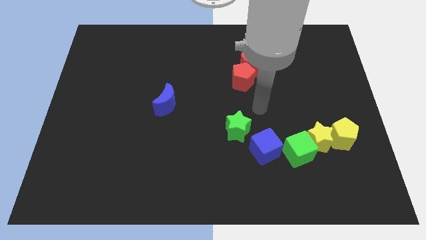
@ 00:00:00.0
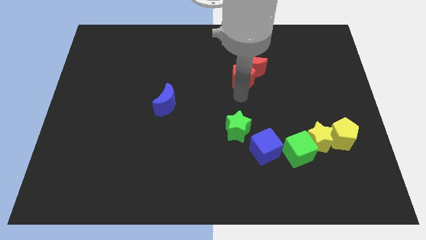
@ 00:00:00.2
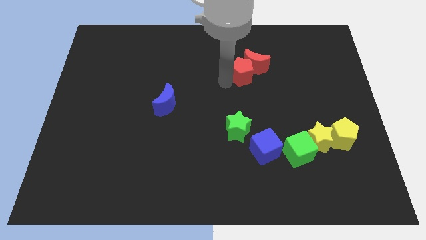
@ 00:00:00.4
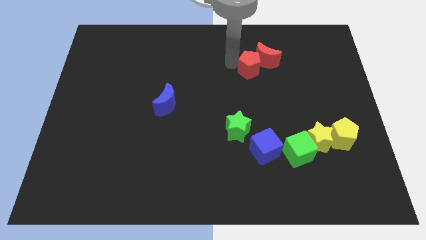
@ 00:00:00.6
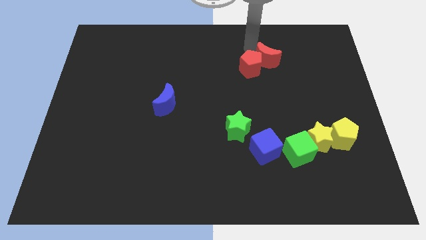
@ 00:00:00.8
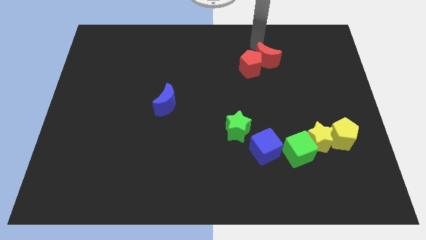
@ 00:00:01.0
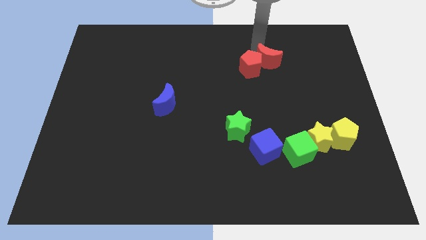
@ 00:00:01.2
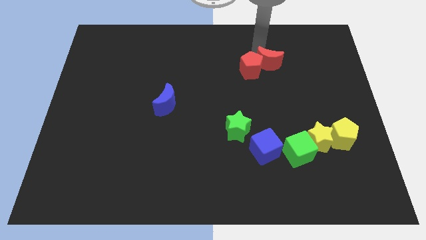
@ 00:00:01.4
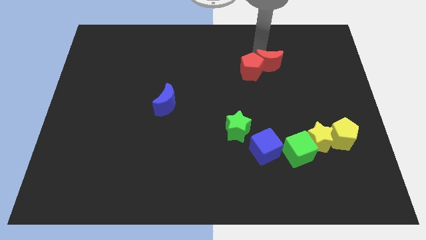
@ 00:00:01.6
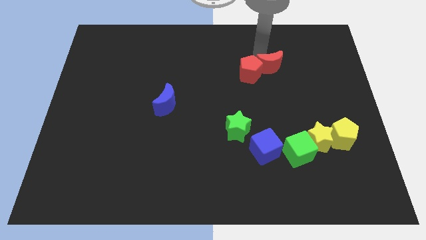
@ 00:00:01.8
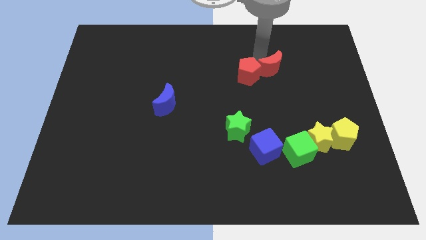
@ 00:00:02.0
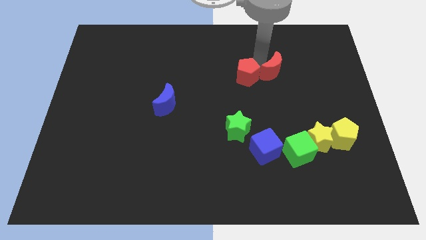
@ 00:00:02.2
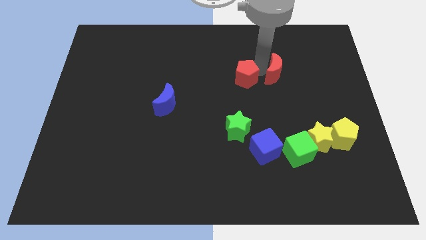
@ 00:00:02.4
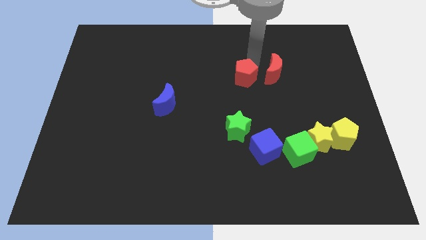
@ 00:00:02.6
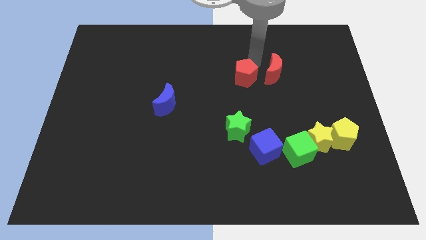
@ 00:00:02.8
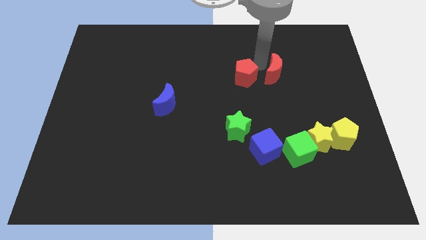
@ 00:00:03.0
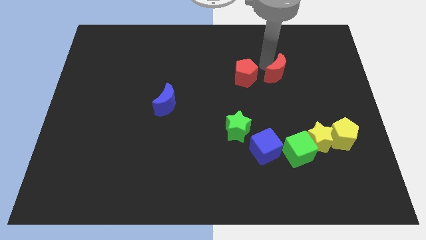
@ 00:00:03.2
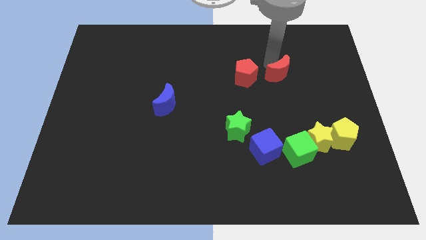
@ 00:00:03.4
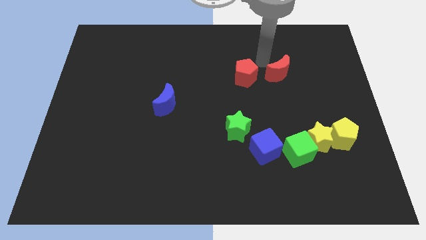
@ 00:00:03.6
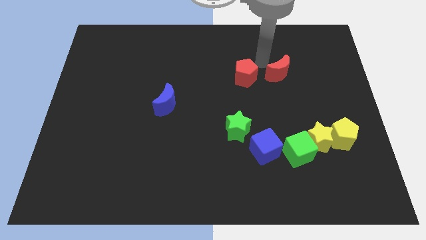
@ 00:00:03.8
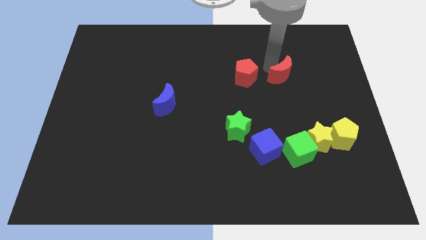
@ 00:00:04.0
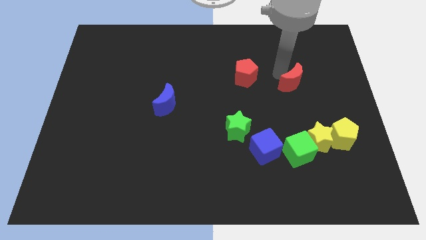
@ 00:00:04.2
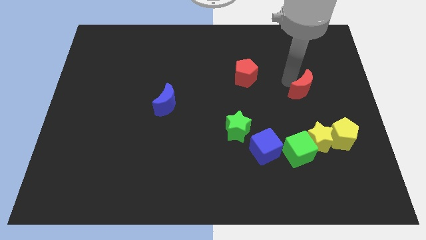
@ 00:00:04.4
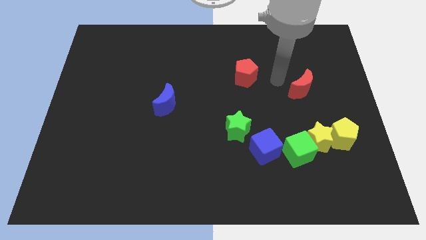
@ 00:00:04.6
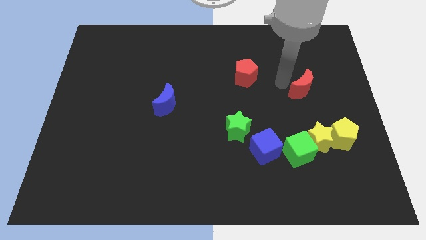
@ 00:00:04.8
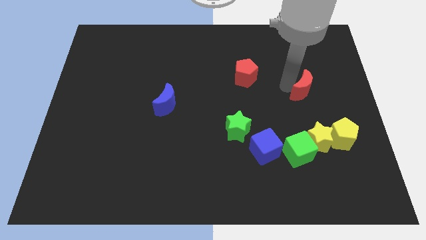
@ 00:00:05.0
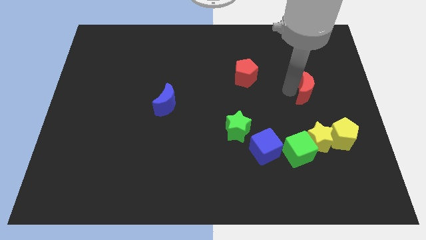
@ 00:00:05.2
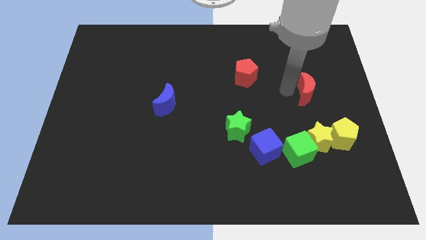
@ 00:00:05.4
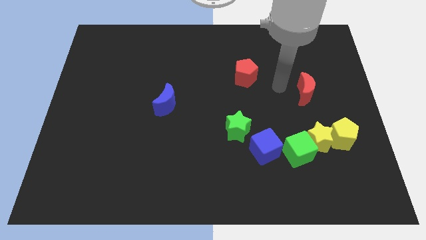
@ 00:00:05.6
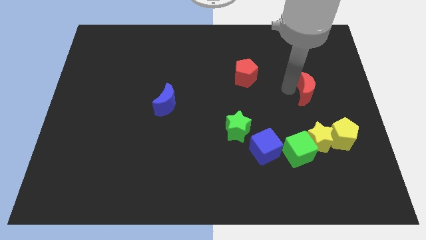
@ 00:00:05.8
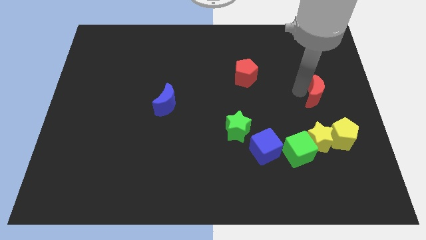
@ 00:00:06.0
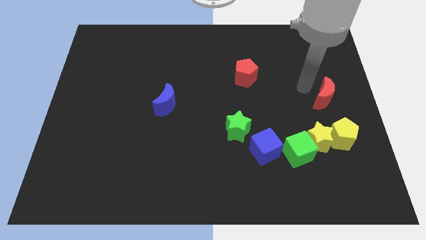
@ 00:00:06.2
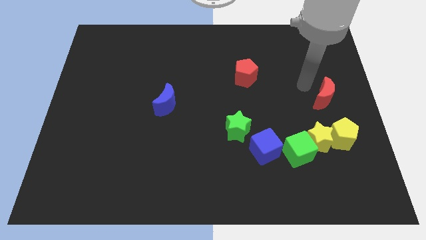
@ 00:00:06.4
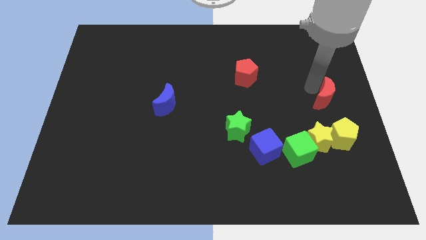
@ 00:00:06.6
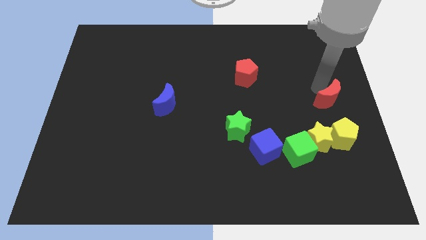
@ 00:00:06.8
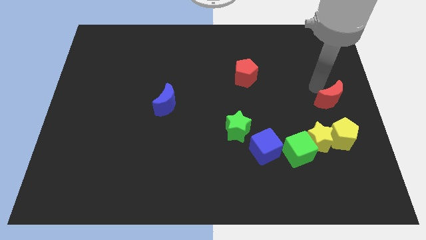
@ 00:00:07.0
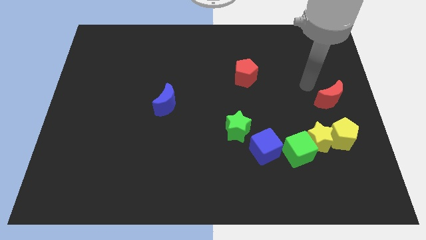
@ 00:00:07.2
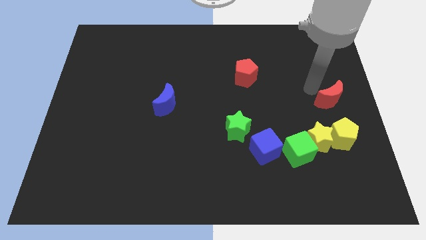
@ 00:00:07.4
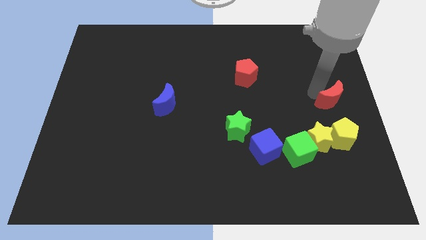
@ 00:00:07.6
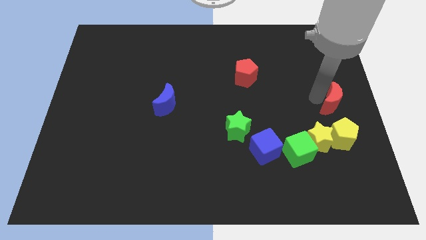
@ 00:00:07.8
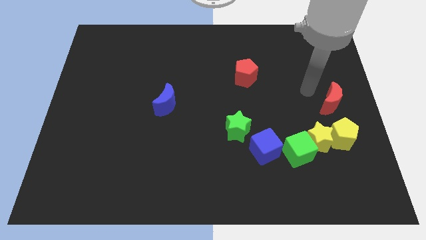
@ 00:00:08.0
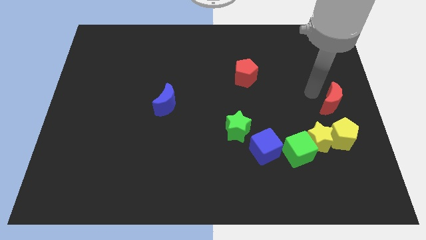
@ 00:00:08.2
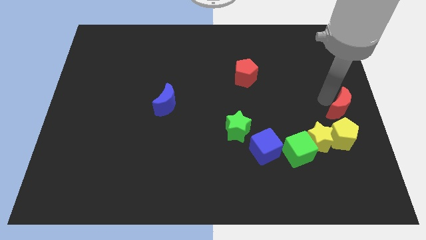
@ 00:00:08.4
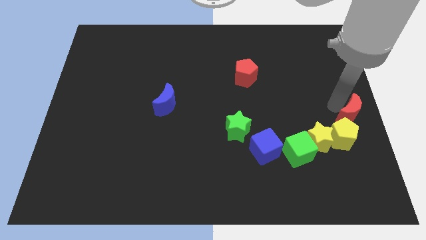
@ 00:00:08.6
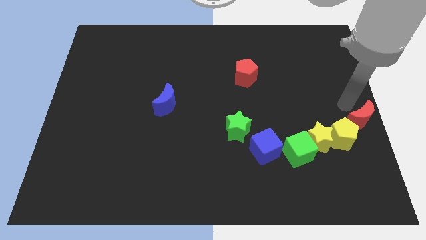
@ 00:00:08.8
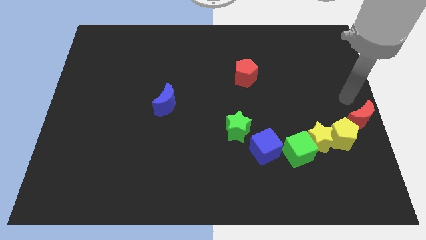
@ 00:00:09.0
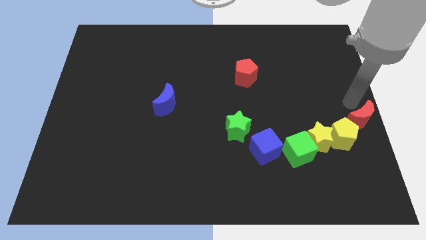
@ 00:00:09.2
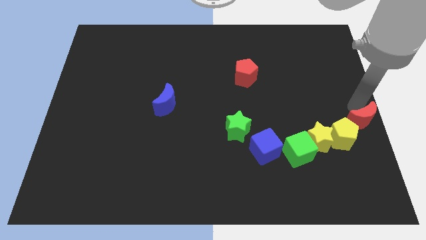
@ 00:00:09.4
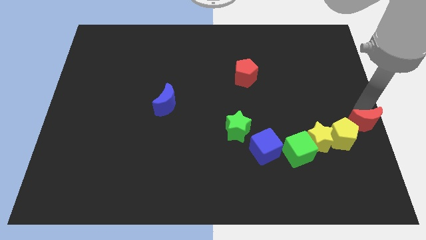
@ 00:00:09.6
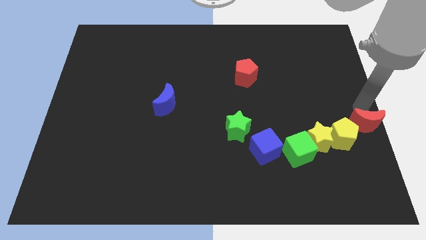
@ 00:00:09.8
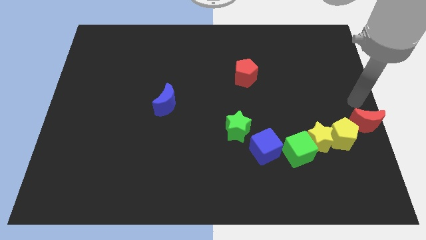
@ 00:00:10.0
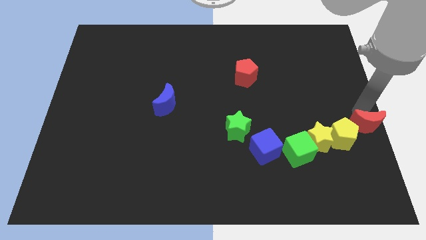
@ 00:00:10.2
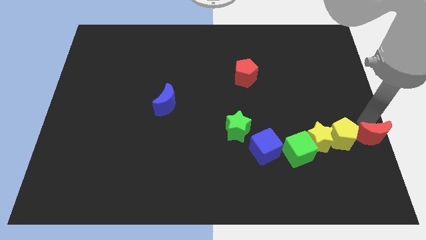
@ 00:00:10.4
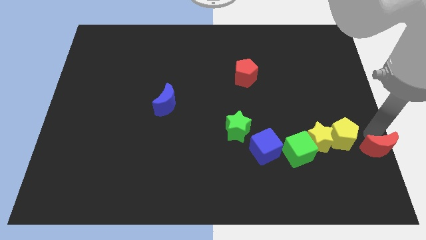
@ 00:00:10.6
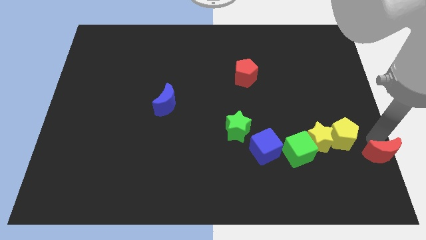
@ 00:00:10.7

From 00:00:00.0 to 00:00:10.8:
move the red moon to the bottom right of the board

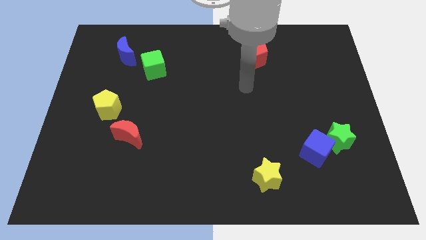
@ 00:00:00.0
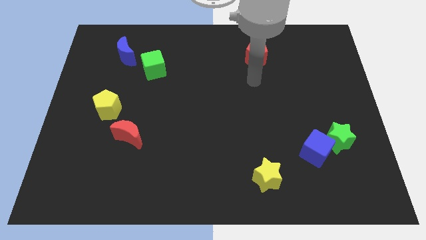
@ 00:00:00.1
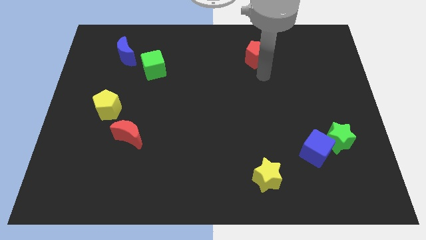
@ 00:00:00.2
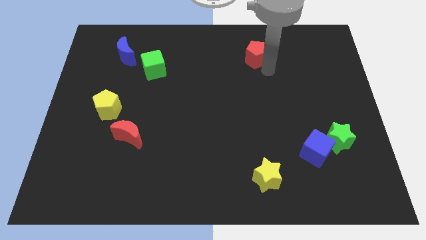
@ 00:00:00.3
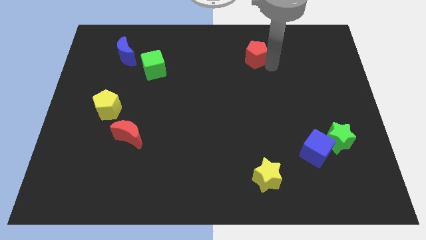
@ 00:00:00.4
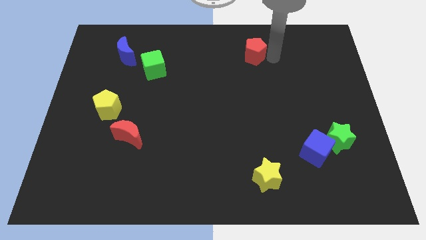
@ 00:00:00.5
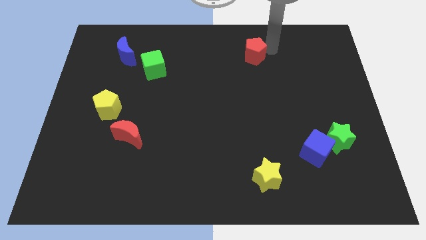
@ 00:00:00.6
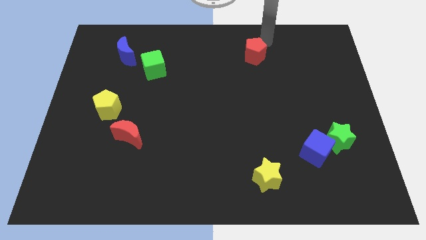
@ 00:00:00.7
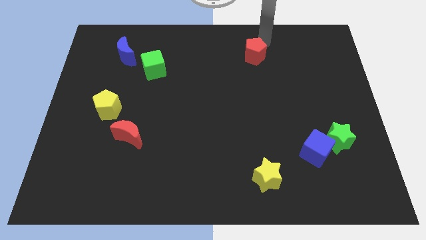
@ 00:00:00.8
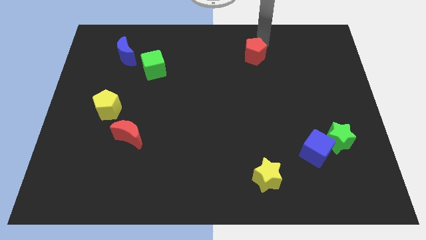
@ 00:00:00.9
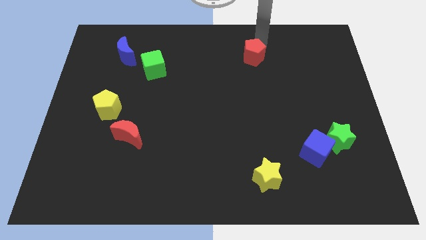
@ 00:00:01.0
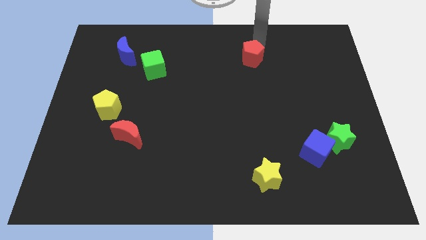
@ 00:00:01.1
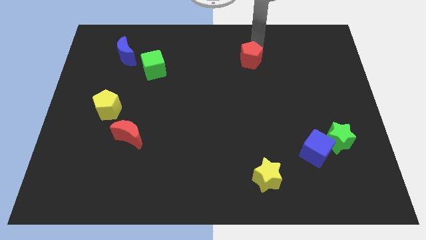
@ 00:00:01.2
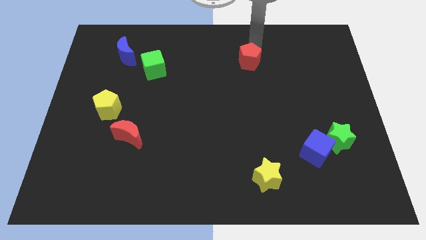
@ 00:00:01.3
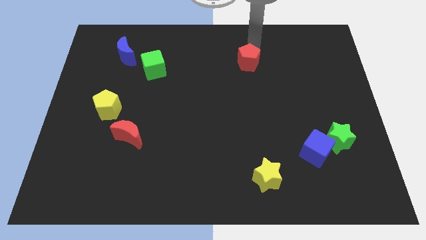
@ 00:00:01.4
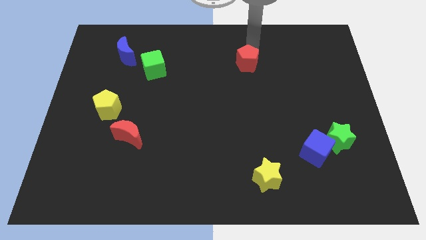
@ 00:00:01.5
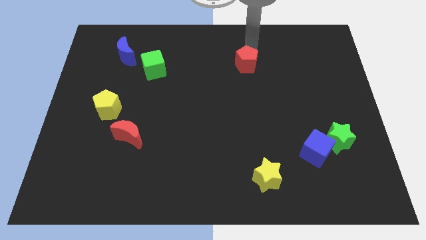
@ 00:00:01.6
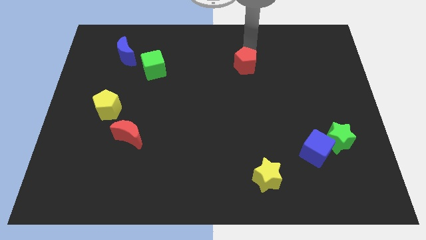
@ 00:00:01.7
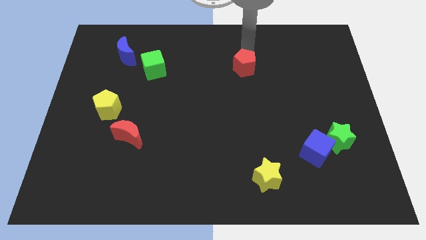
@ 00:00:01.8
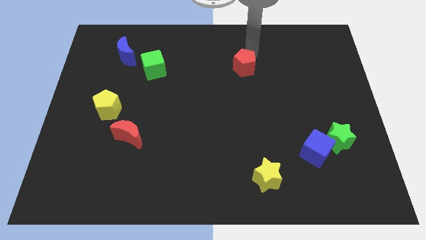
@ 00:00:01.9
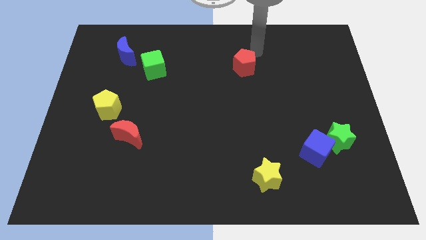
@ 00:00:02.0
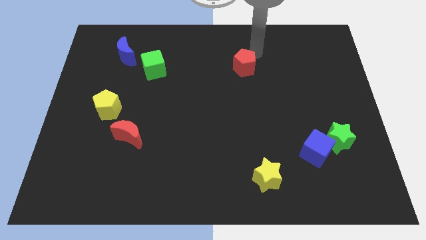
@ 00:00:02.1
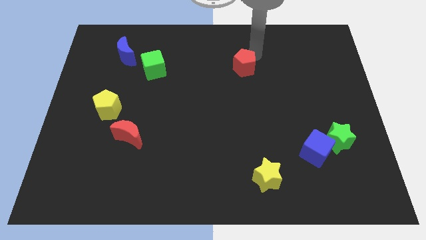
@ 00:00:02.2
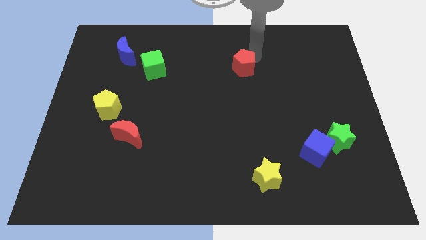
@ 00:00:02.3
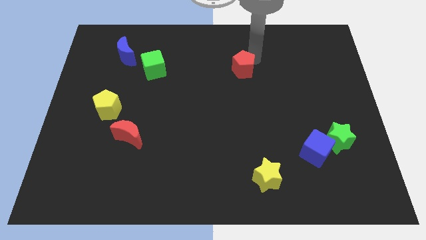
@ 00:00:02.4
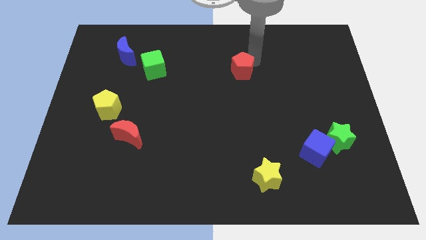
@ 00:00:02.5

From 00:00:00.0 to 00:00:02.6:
put the red pentagon to the center of the board
